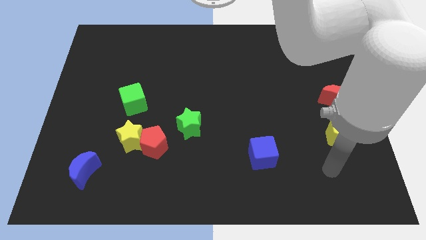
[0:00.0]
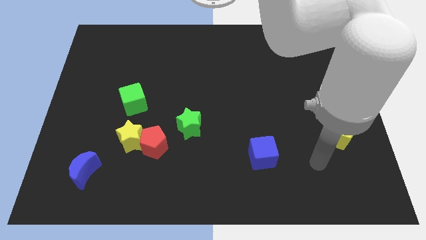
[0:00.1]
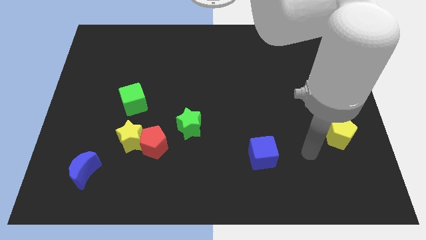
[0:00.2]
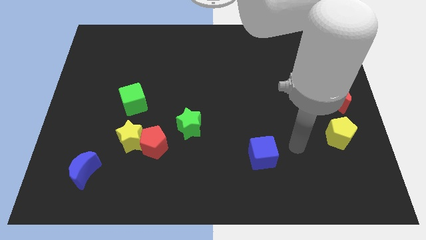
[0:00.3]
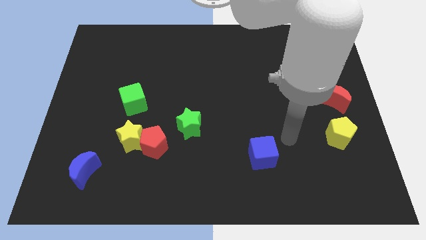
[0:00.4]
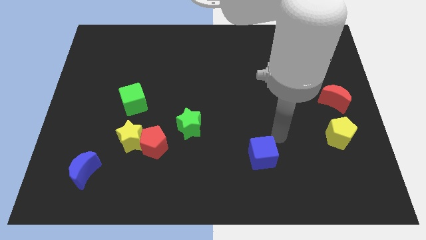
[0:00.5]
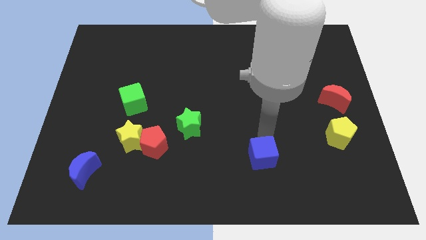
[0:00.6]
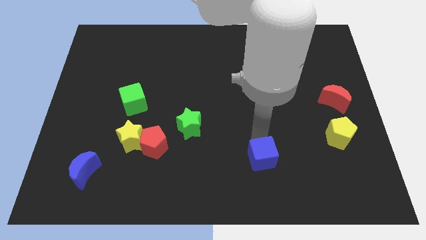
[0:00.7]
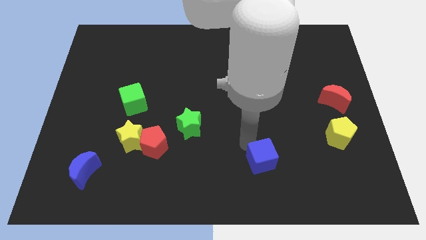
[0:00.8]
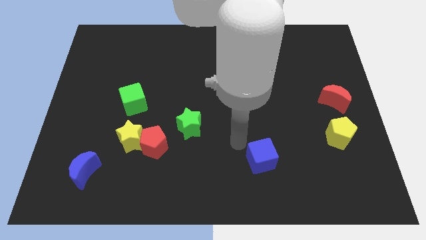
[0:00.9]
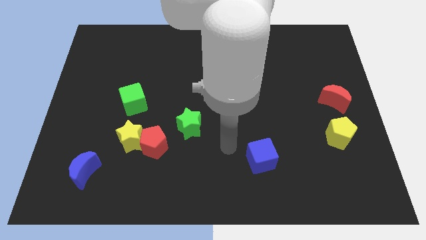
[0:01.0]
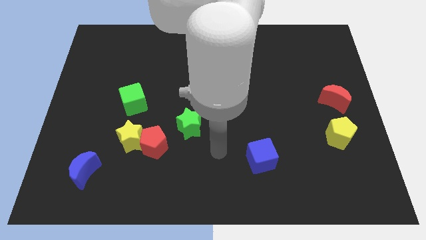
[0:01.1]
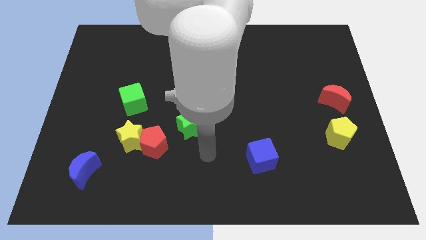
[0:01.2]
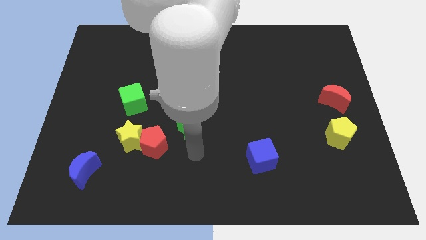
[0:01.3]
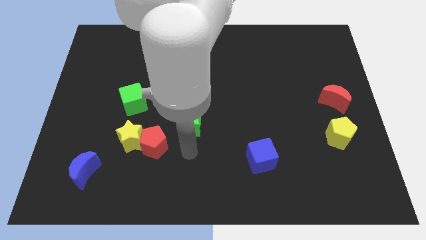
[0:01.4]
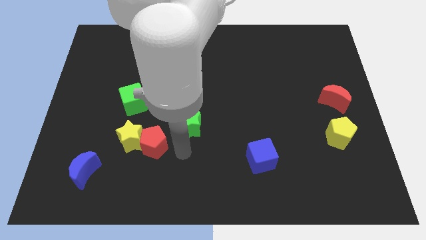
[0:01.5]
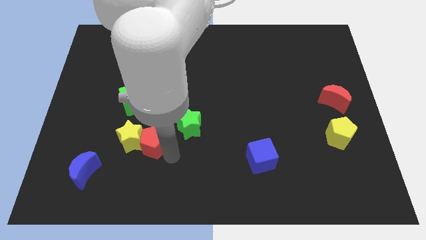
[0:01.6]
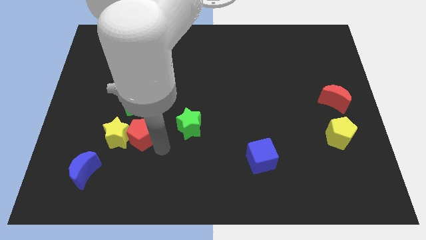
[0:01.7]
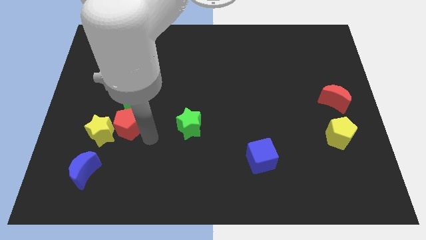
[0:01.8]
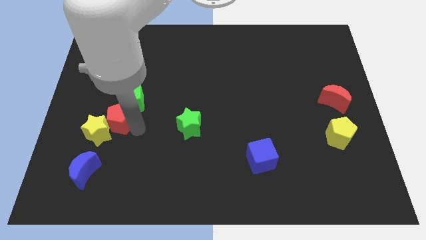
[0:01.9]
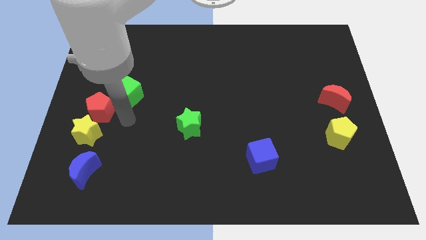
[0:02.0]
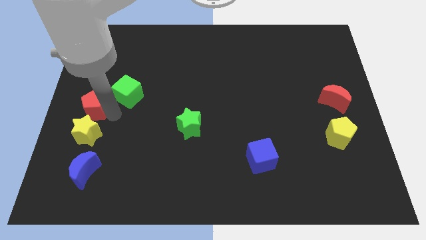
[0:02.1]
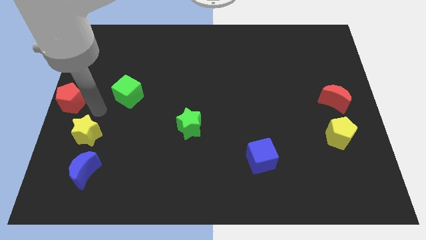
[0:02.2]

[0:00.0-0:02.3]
move the yellow star away from the red pentagon

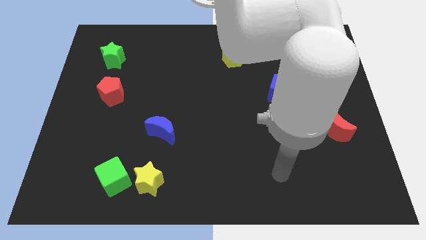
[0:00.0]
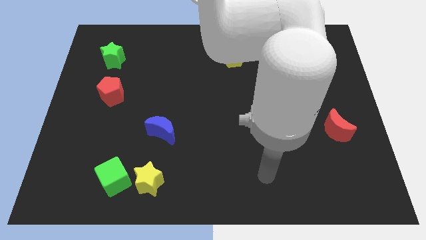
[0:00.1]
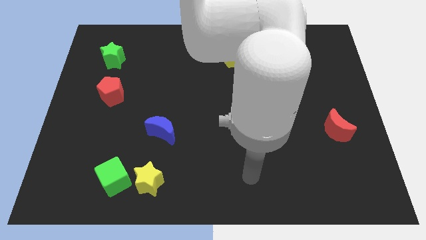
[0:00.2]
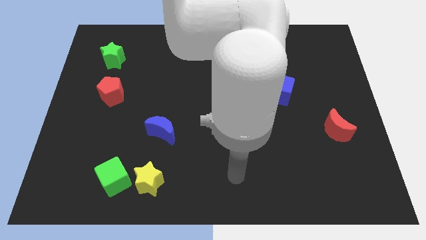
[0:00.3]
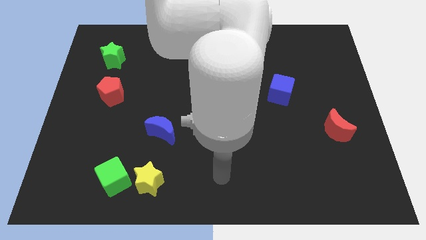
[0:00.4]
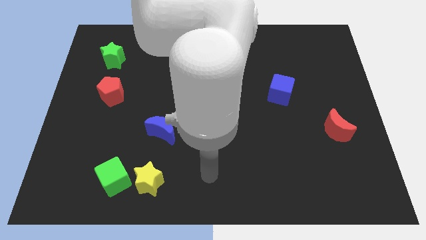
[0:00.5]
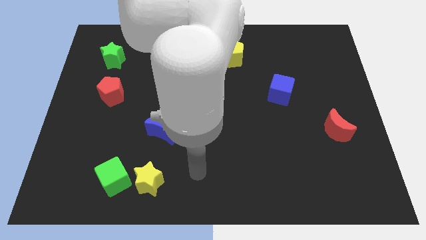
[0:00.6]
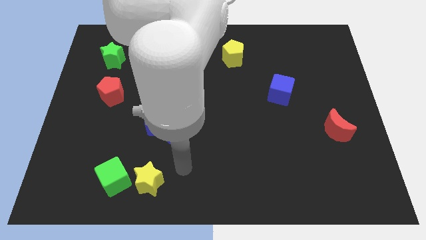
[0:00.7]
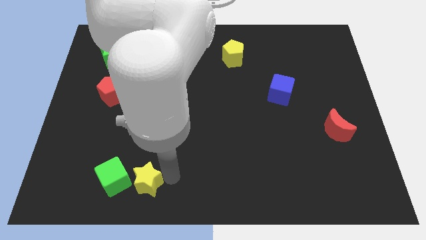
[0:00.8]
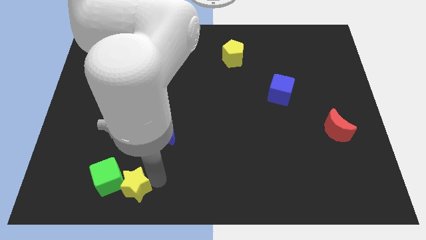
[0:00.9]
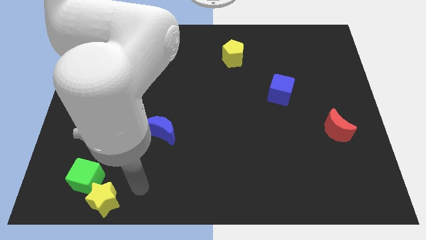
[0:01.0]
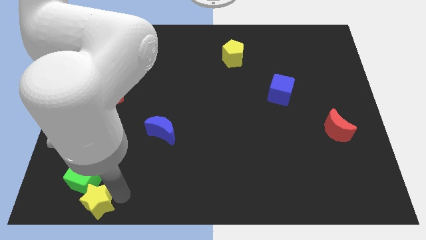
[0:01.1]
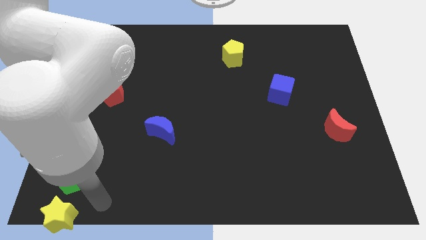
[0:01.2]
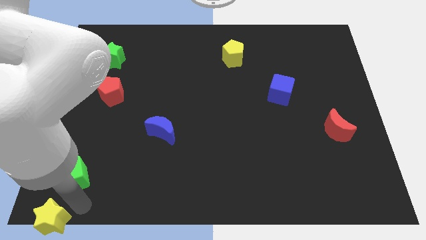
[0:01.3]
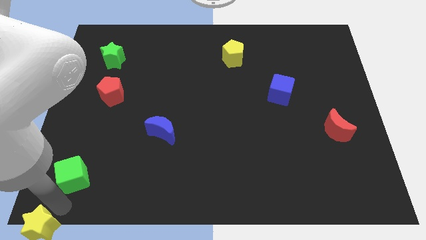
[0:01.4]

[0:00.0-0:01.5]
separate the green cube from the yellow star

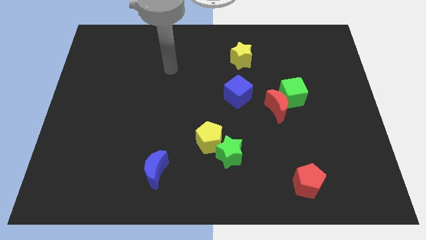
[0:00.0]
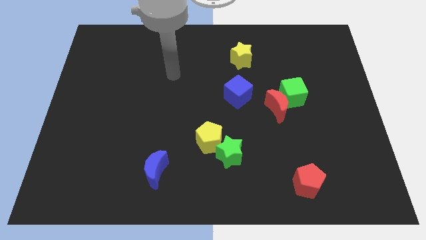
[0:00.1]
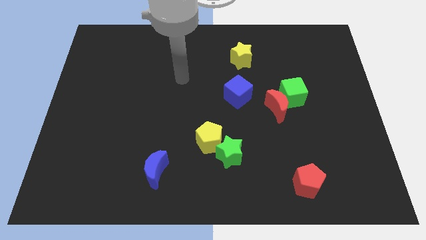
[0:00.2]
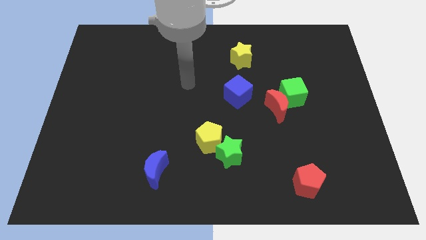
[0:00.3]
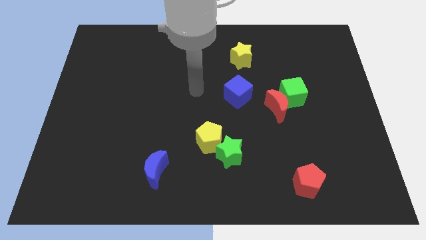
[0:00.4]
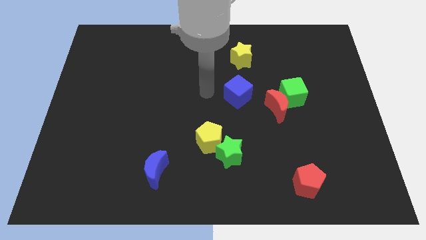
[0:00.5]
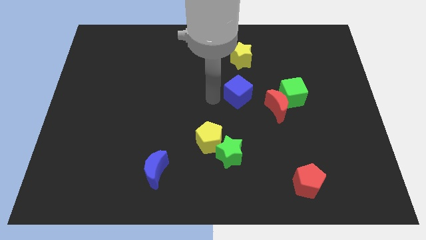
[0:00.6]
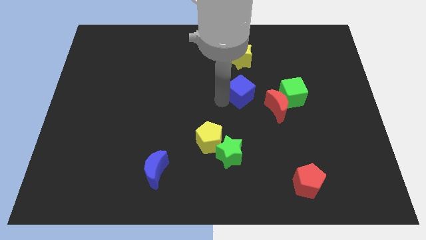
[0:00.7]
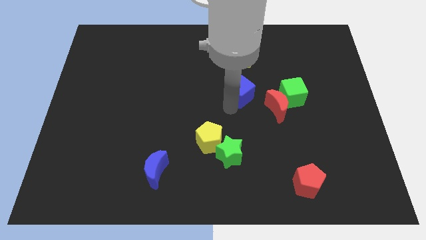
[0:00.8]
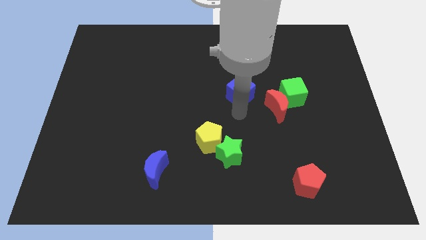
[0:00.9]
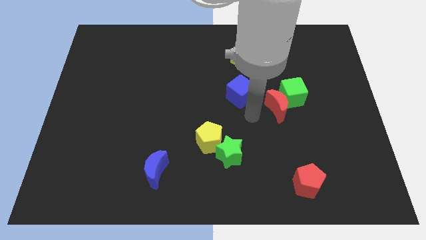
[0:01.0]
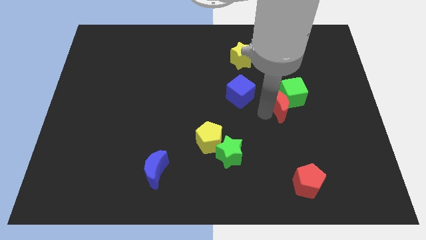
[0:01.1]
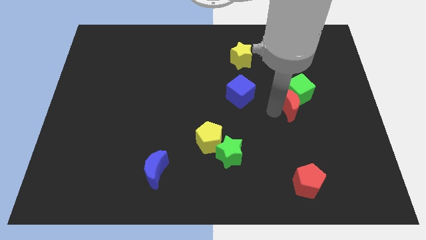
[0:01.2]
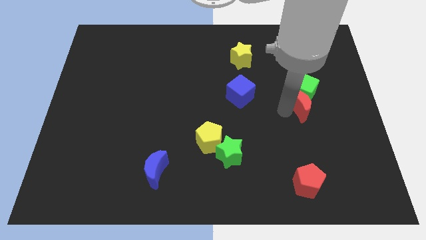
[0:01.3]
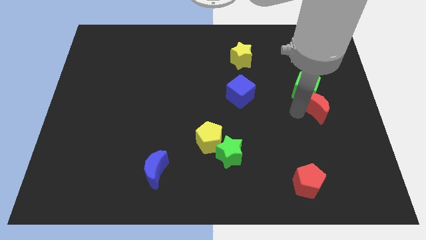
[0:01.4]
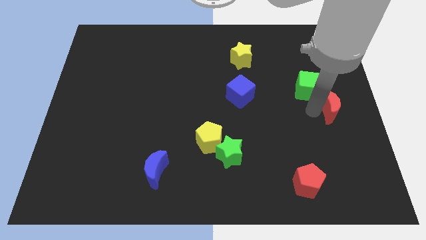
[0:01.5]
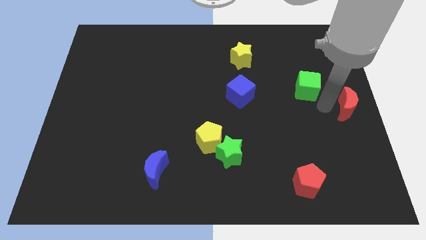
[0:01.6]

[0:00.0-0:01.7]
separate the green cube from the red moon

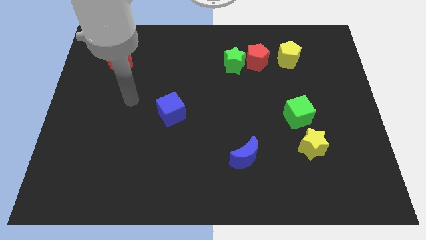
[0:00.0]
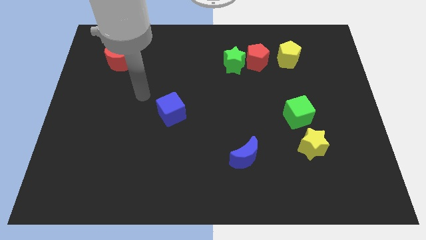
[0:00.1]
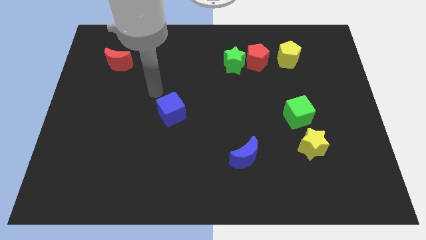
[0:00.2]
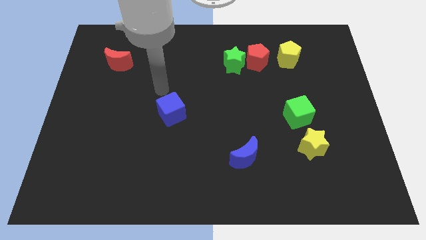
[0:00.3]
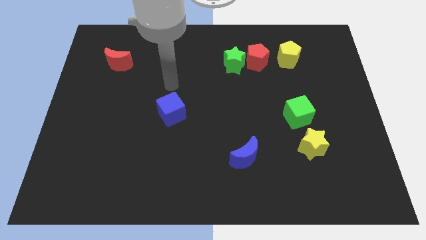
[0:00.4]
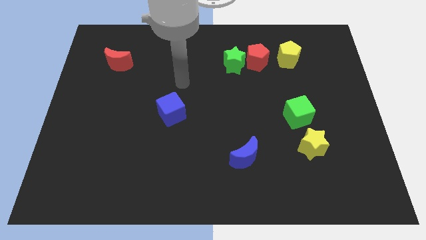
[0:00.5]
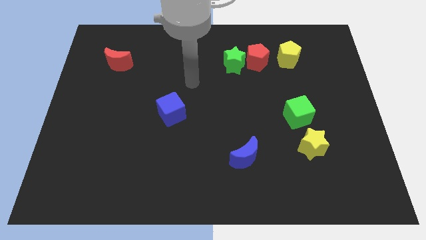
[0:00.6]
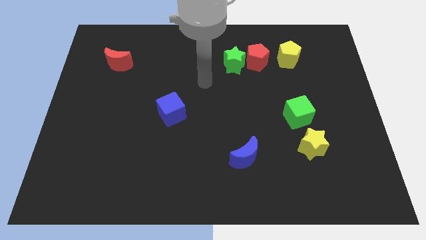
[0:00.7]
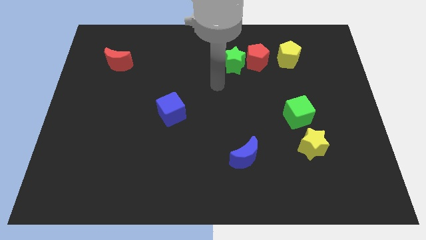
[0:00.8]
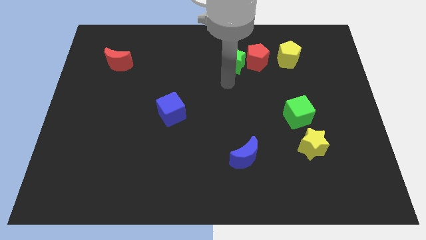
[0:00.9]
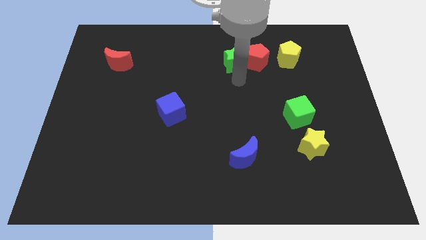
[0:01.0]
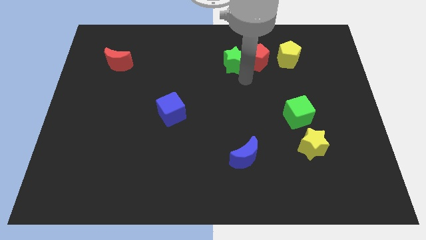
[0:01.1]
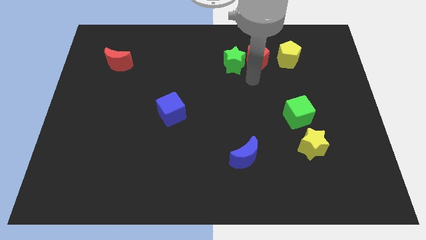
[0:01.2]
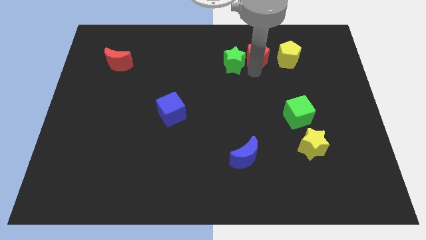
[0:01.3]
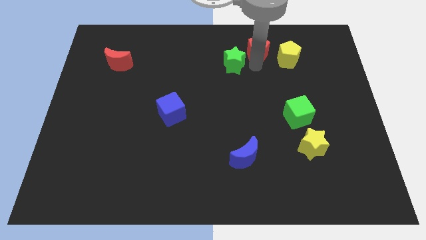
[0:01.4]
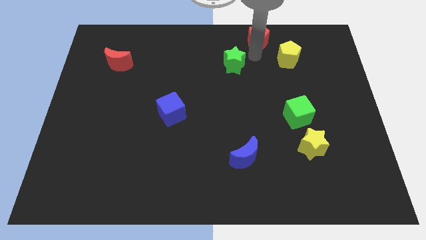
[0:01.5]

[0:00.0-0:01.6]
move the green star away from the red pentagon

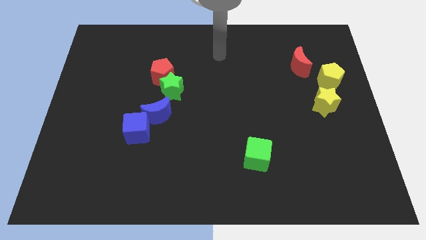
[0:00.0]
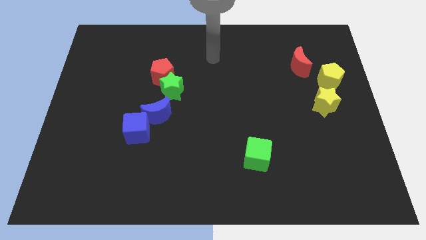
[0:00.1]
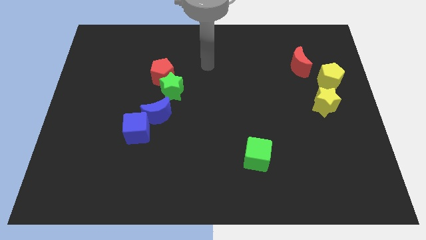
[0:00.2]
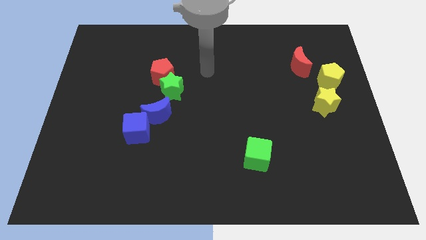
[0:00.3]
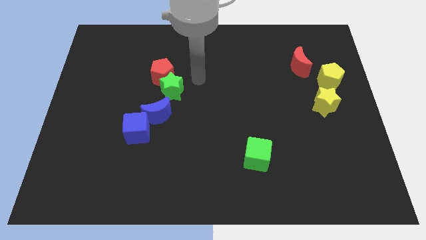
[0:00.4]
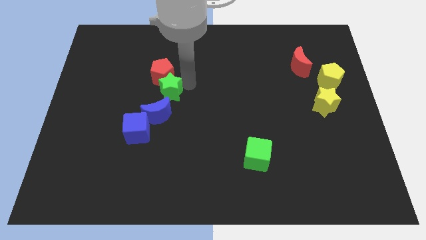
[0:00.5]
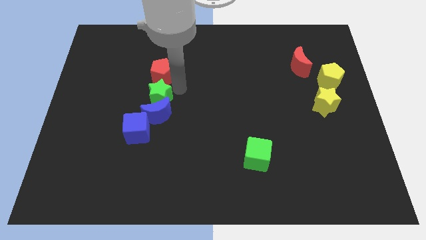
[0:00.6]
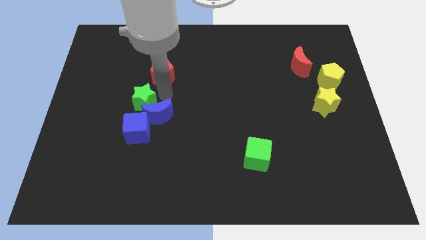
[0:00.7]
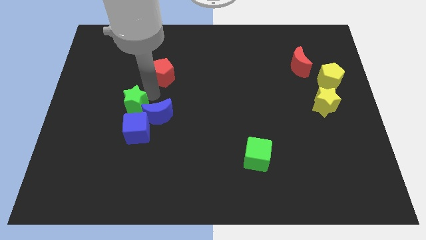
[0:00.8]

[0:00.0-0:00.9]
separate the red pentagon from the green star

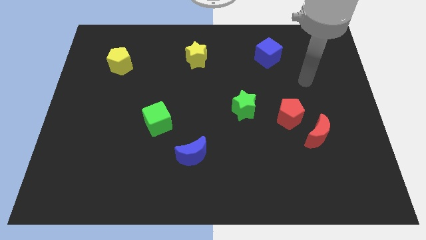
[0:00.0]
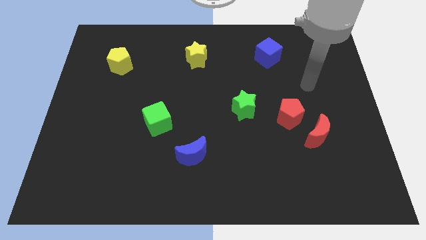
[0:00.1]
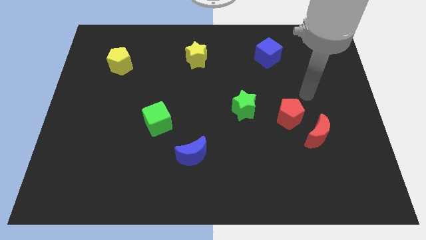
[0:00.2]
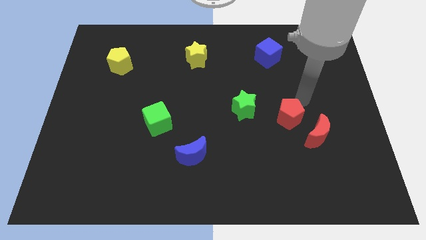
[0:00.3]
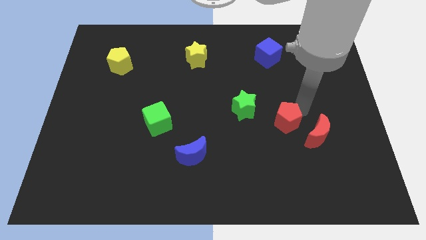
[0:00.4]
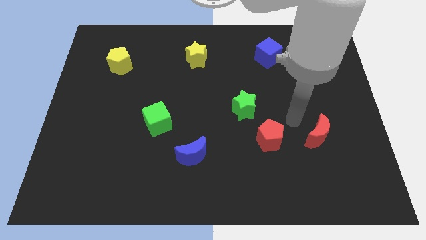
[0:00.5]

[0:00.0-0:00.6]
pull the red moon apart from the red pentagon

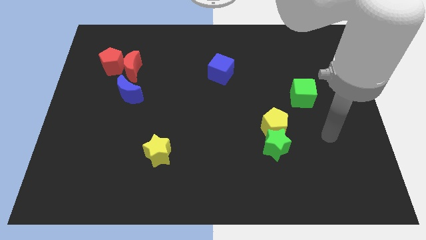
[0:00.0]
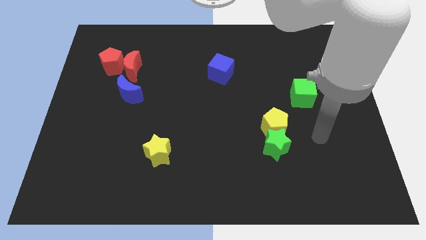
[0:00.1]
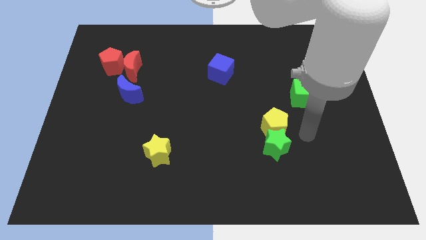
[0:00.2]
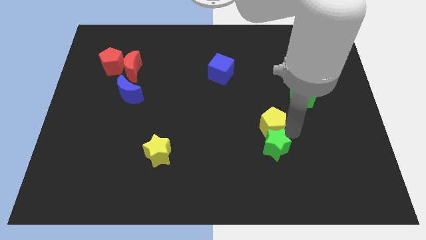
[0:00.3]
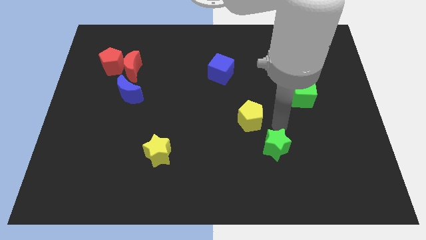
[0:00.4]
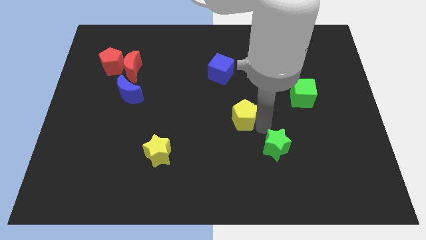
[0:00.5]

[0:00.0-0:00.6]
pull the green star apart from the yellow pentagon

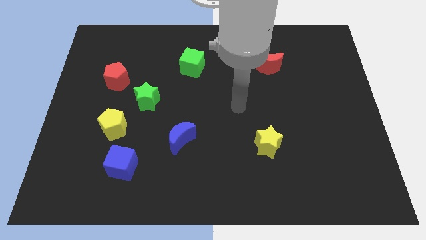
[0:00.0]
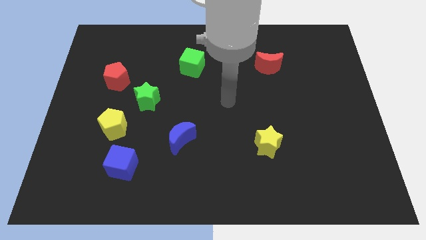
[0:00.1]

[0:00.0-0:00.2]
pull the red pentagon apart from the green star
